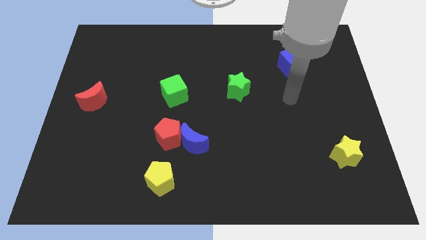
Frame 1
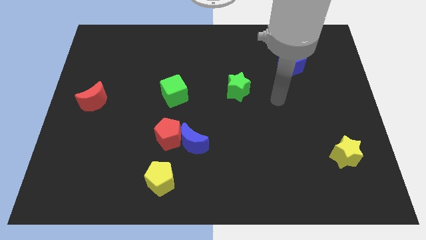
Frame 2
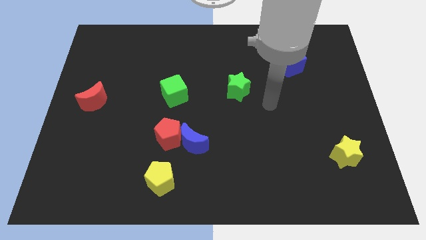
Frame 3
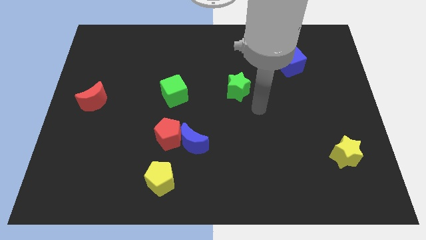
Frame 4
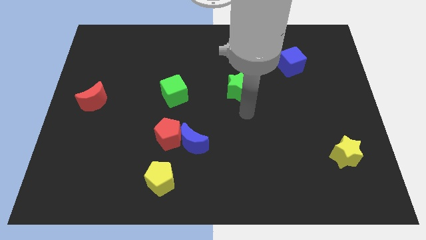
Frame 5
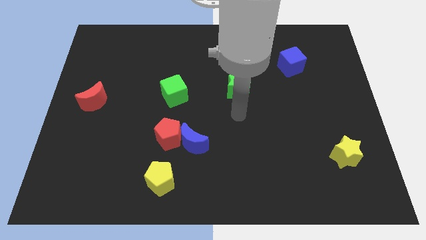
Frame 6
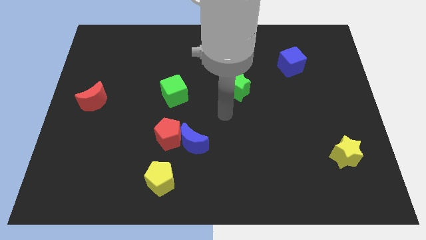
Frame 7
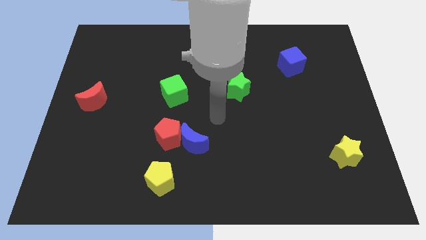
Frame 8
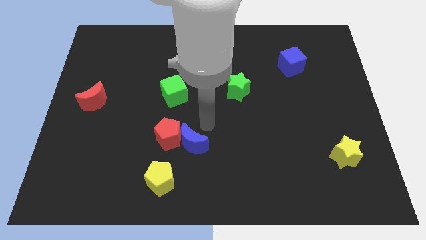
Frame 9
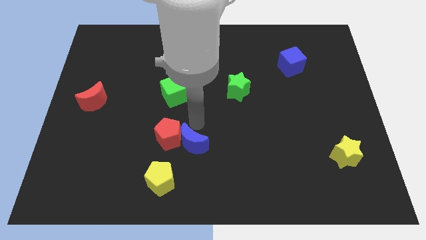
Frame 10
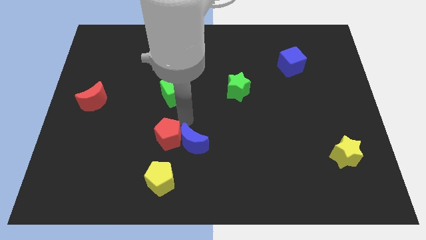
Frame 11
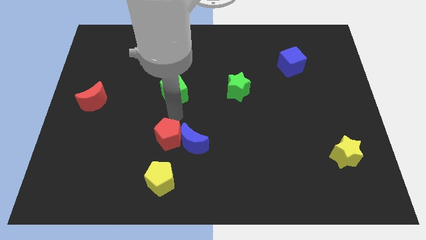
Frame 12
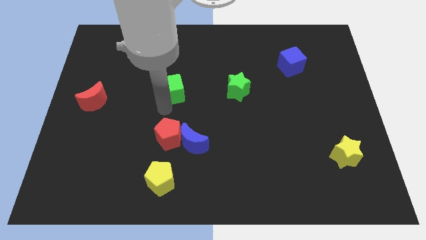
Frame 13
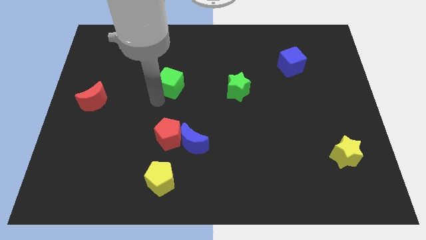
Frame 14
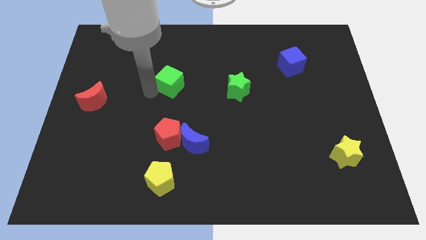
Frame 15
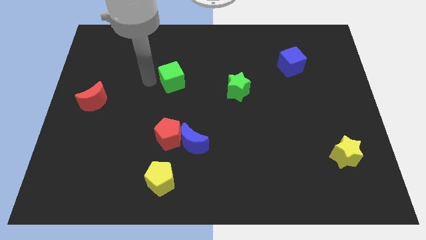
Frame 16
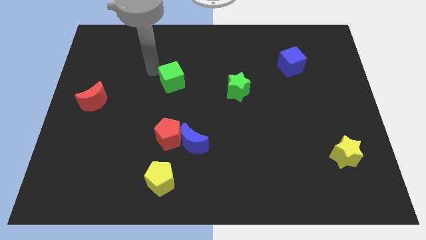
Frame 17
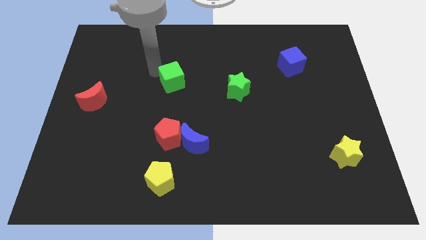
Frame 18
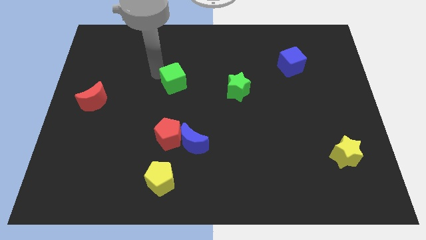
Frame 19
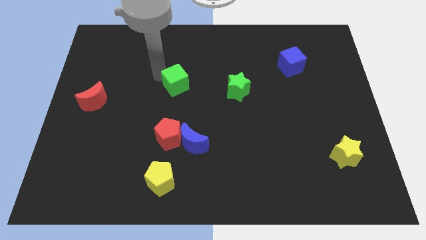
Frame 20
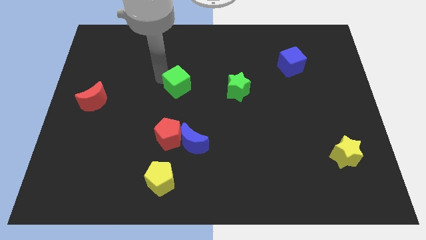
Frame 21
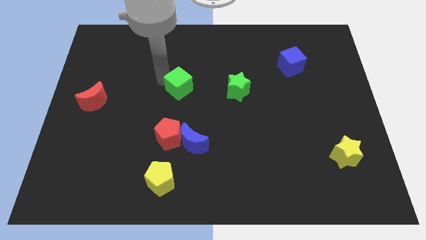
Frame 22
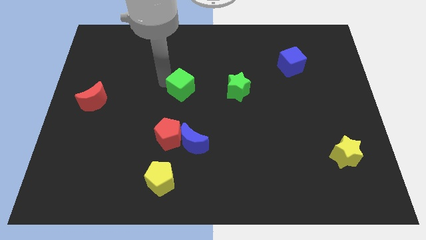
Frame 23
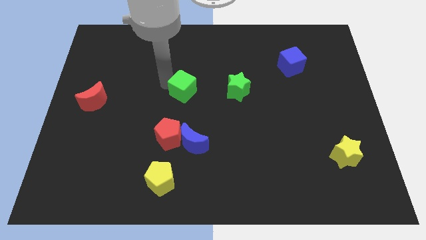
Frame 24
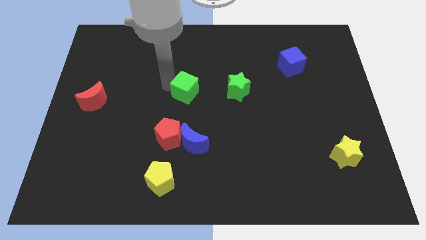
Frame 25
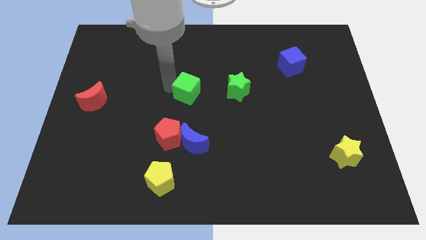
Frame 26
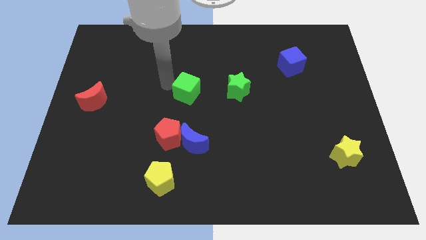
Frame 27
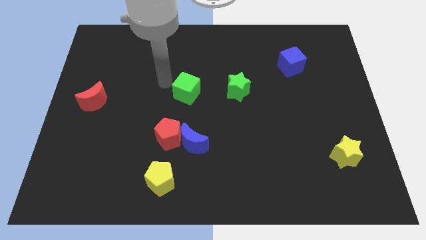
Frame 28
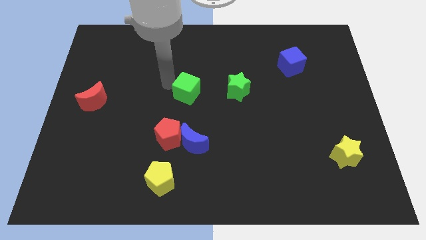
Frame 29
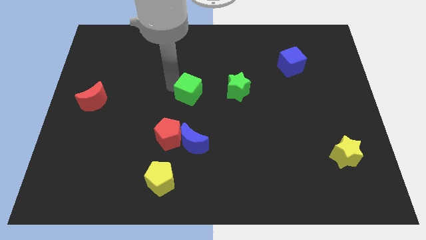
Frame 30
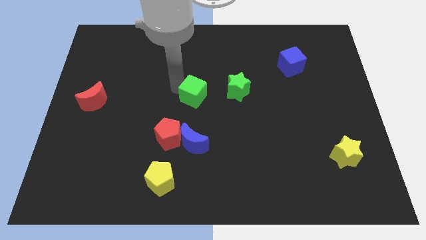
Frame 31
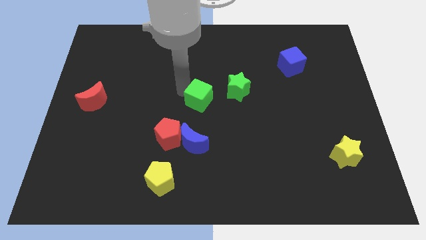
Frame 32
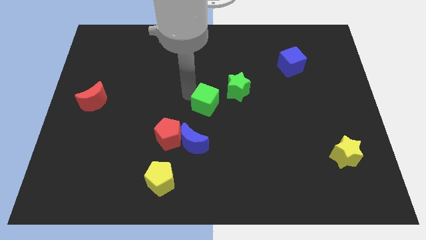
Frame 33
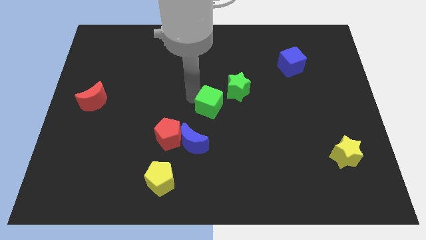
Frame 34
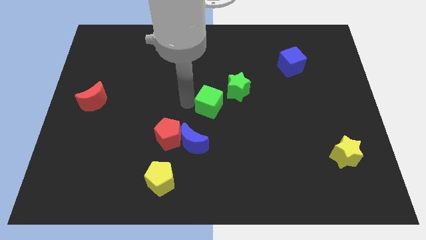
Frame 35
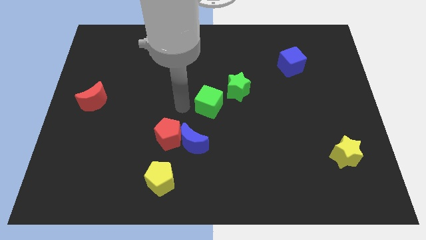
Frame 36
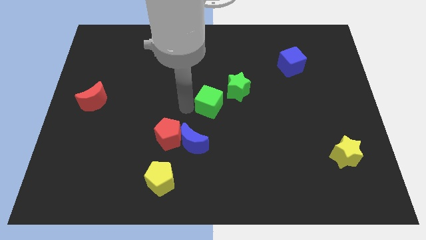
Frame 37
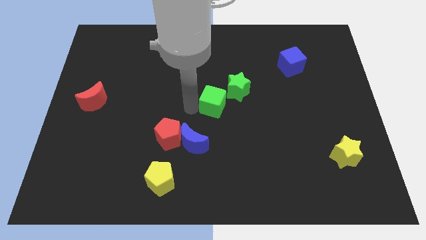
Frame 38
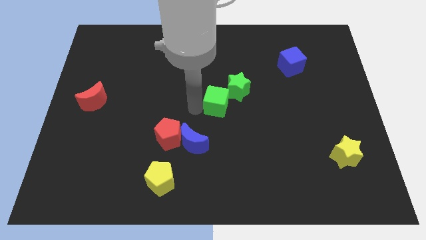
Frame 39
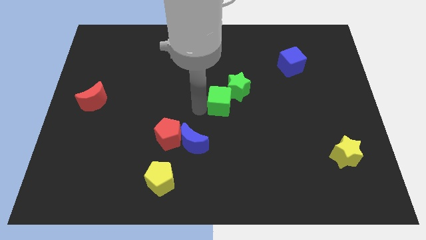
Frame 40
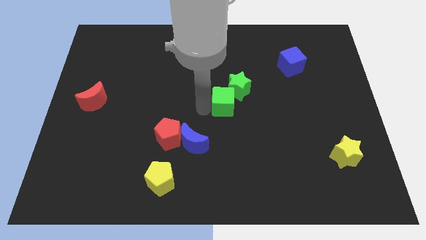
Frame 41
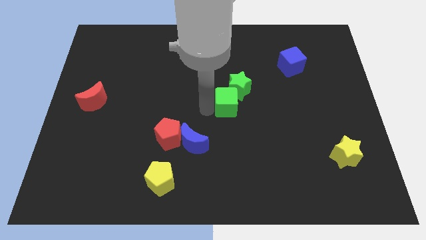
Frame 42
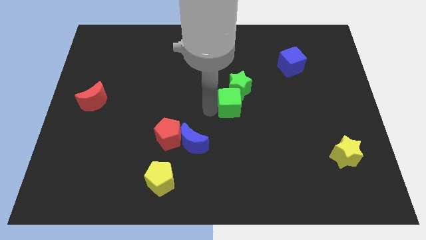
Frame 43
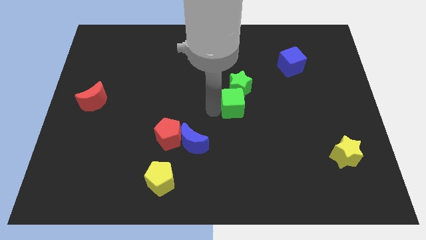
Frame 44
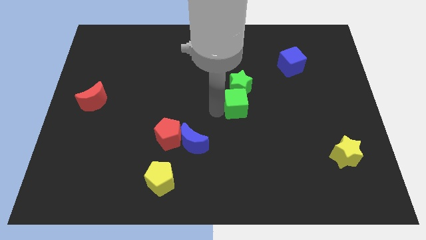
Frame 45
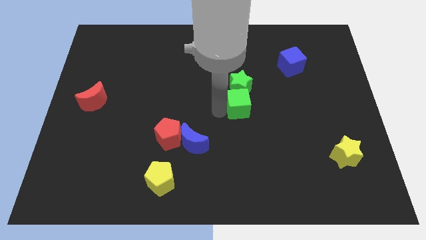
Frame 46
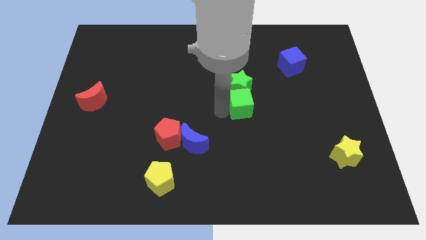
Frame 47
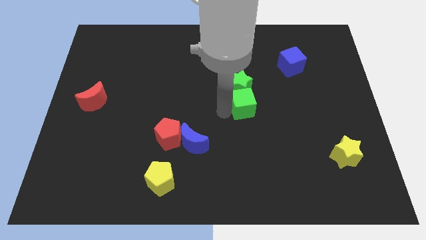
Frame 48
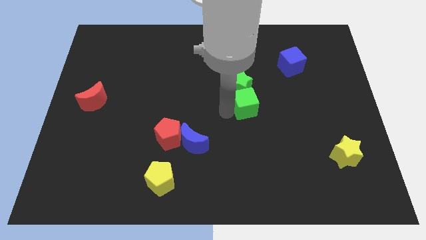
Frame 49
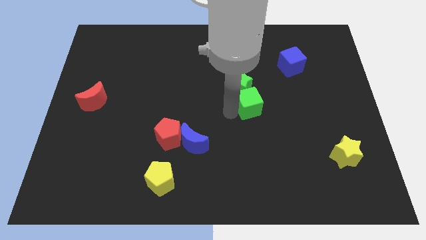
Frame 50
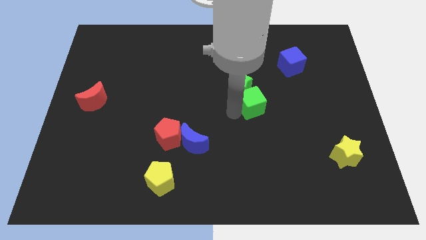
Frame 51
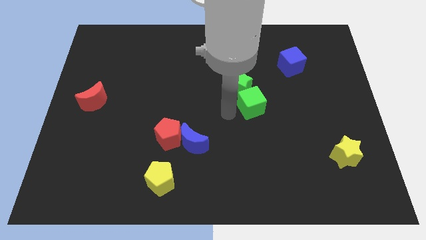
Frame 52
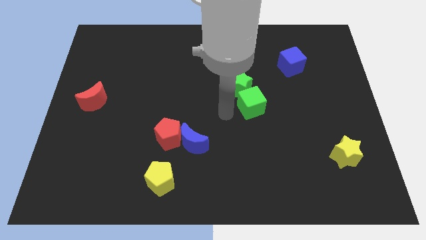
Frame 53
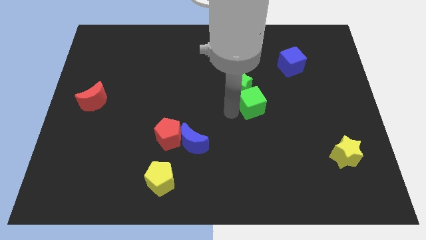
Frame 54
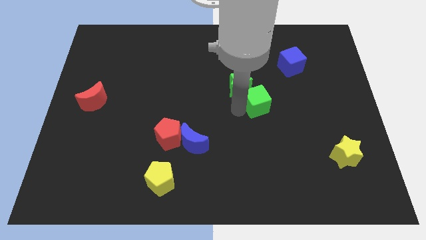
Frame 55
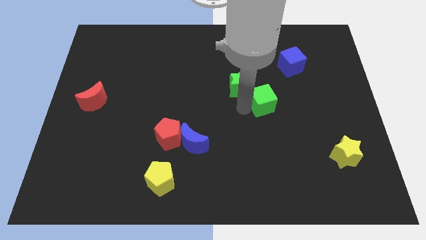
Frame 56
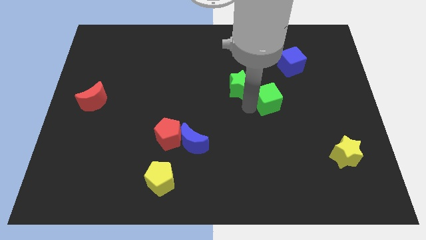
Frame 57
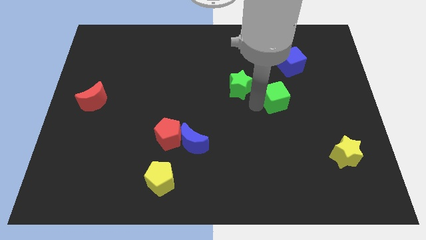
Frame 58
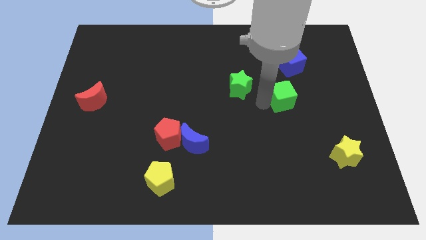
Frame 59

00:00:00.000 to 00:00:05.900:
put the green cube below the blue cube

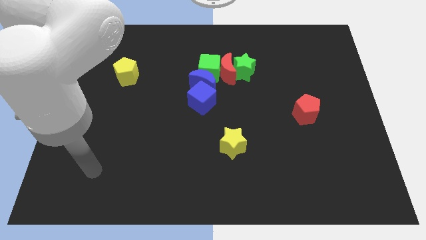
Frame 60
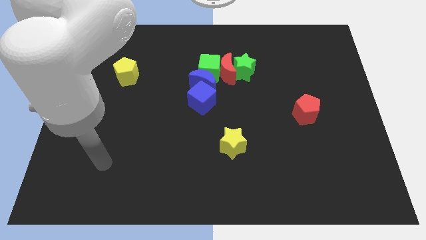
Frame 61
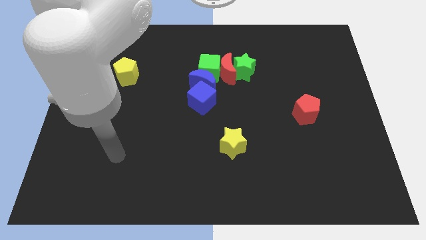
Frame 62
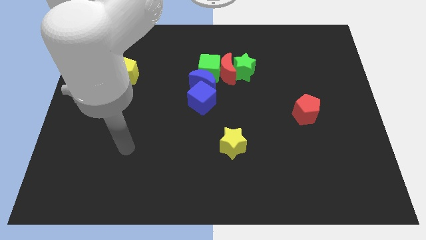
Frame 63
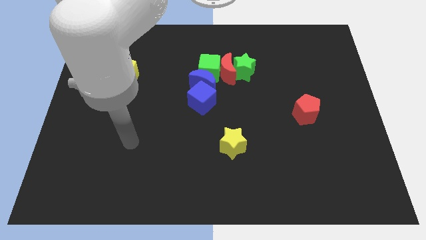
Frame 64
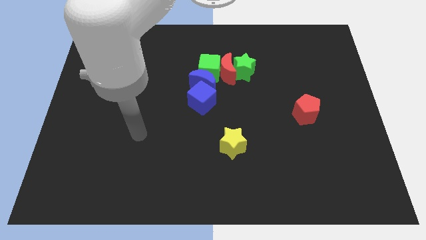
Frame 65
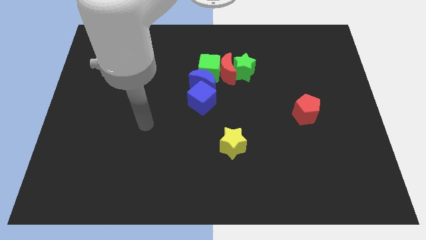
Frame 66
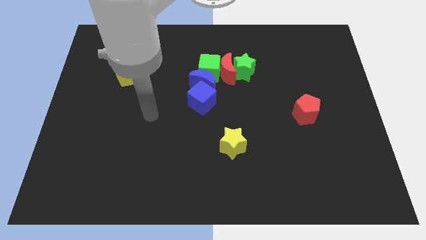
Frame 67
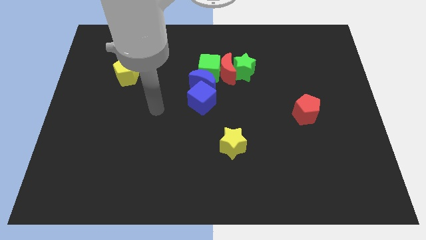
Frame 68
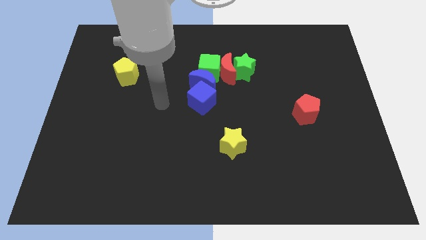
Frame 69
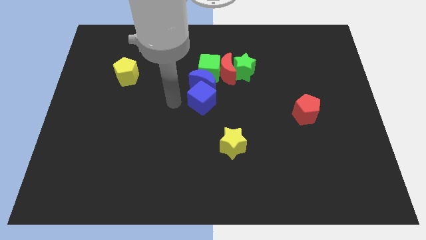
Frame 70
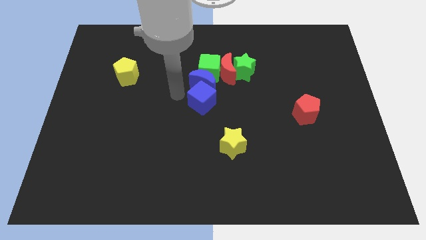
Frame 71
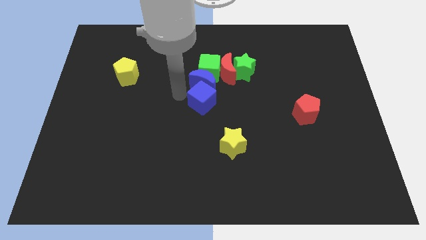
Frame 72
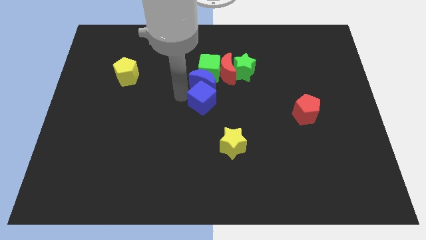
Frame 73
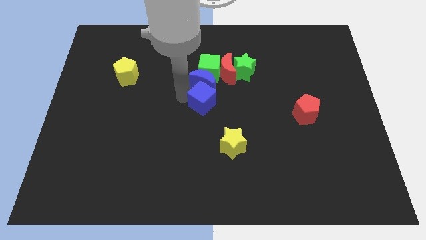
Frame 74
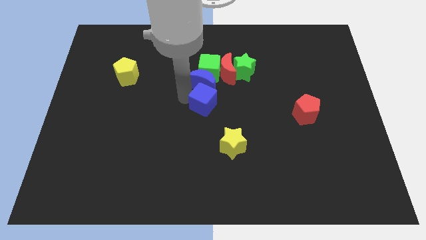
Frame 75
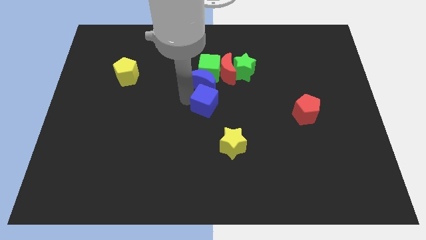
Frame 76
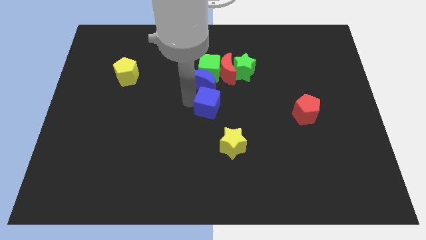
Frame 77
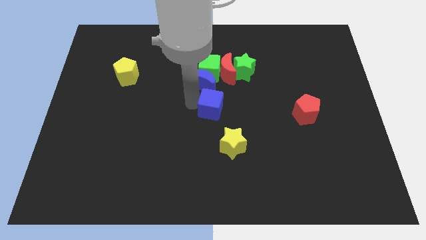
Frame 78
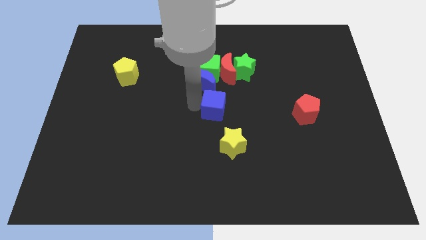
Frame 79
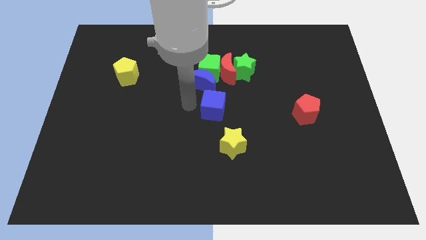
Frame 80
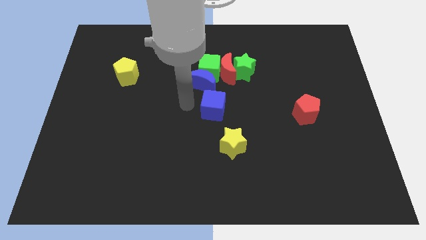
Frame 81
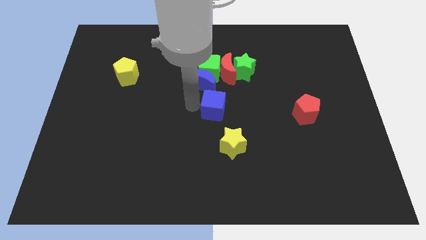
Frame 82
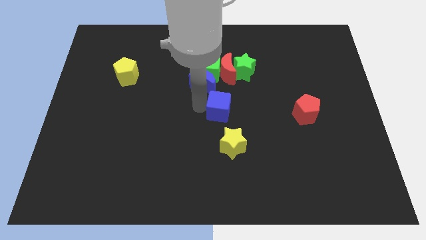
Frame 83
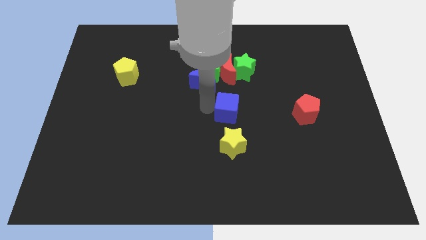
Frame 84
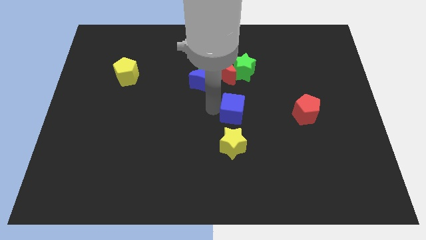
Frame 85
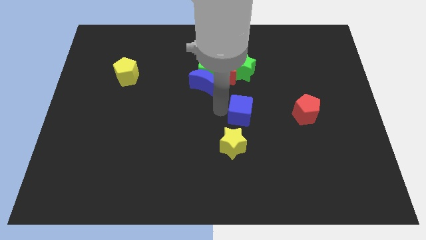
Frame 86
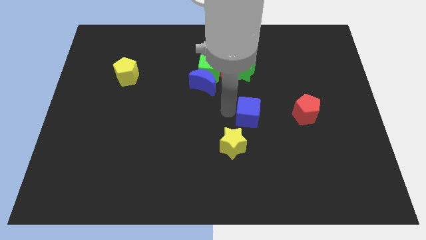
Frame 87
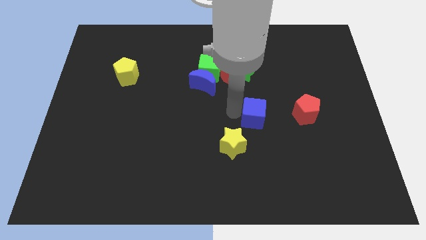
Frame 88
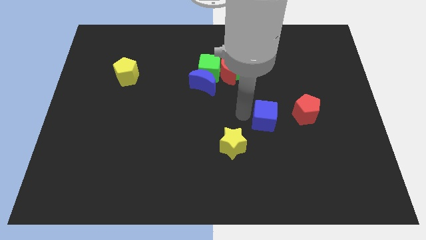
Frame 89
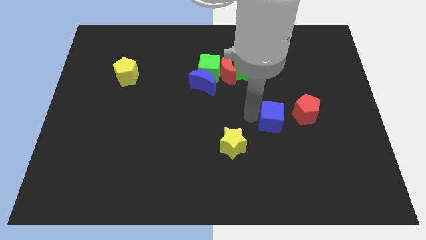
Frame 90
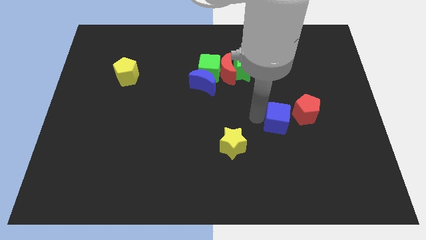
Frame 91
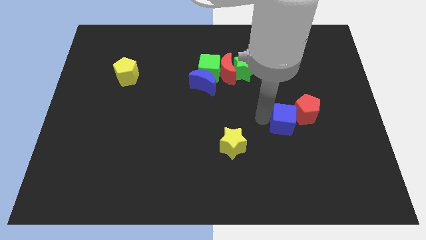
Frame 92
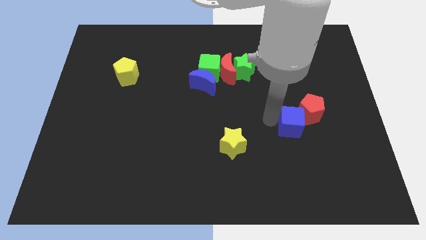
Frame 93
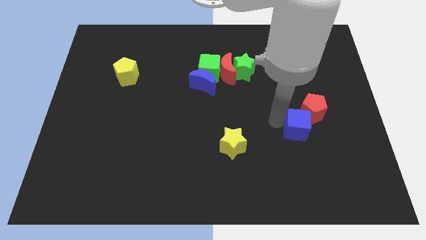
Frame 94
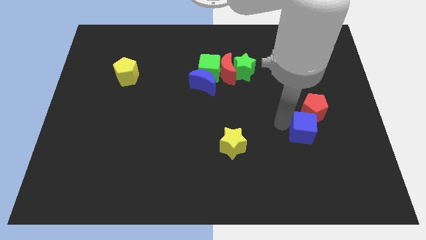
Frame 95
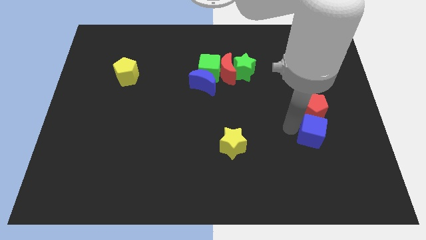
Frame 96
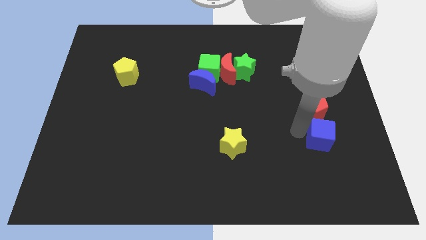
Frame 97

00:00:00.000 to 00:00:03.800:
move the blue cube to the bottom right side of the red pentagon
